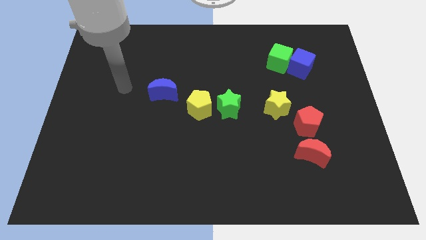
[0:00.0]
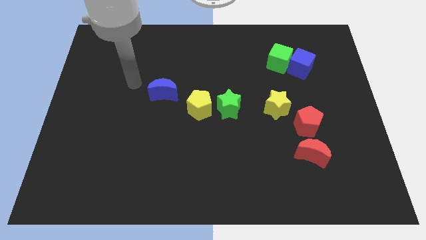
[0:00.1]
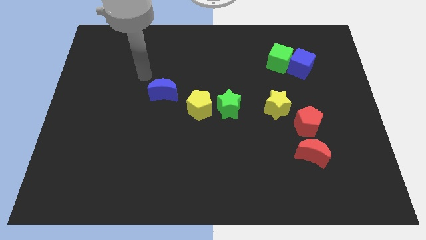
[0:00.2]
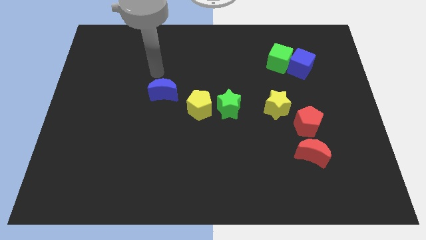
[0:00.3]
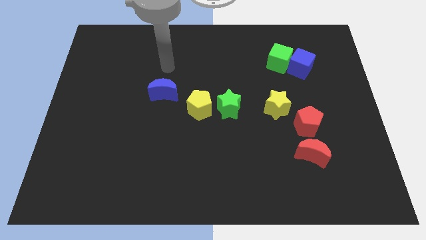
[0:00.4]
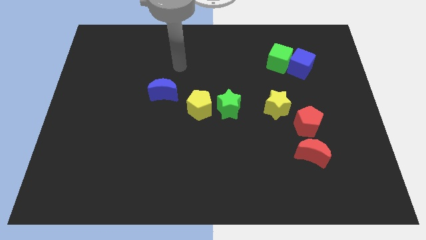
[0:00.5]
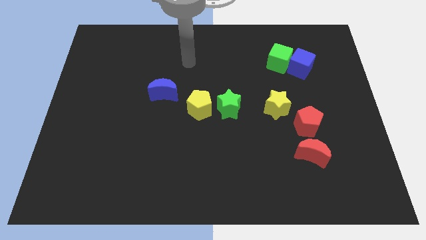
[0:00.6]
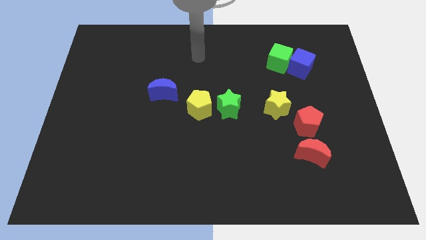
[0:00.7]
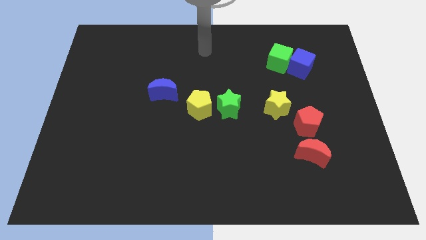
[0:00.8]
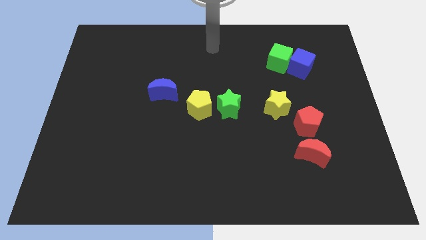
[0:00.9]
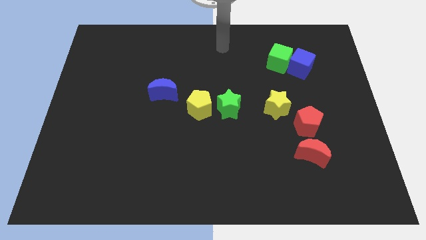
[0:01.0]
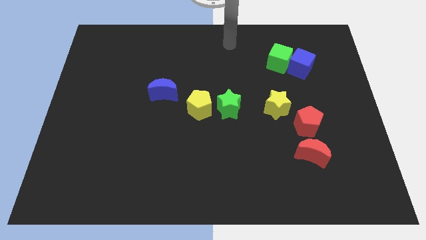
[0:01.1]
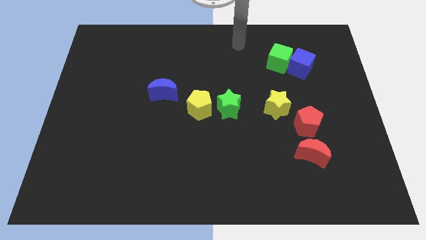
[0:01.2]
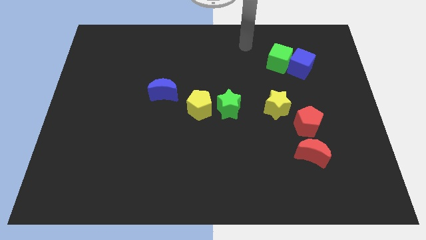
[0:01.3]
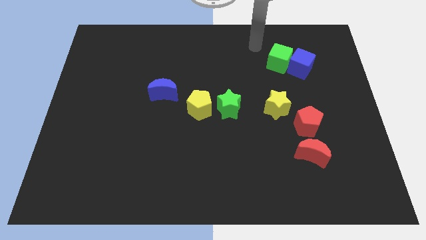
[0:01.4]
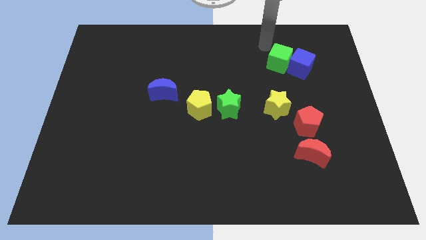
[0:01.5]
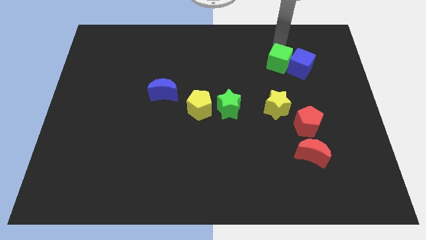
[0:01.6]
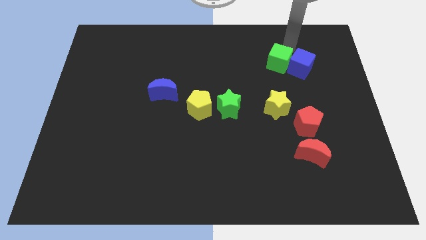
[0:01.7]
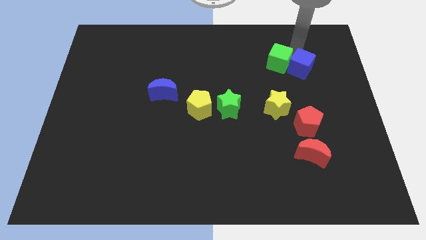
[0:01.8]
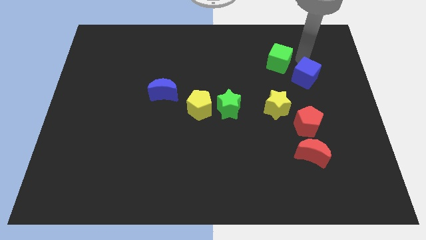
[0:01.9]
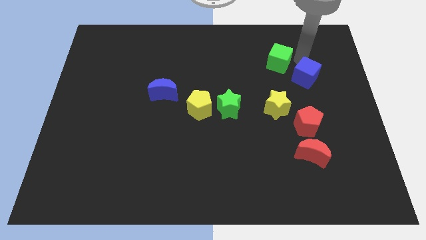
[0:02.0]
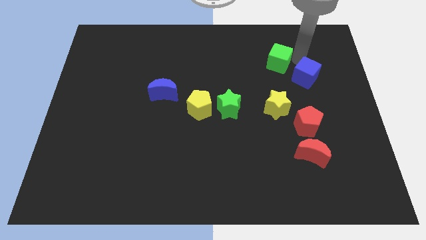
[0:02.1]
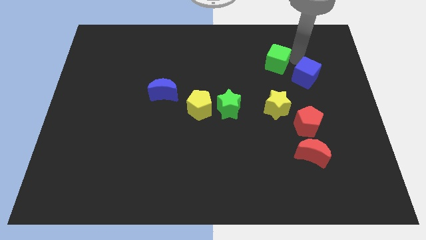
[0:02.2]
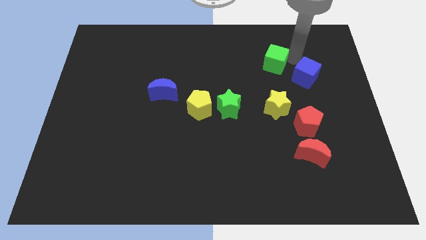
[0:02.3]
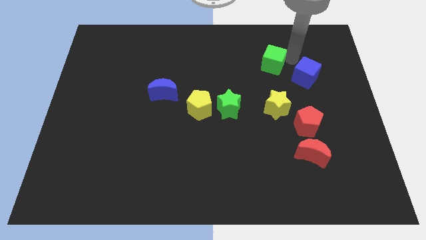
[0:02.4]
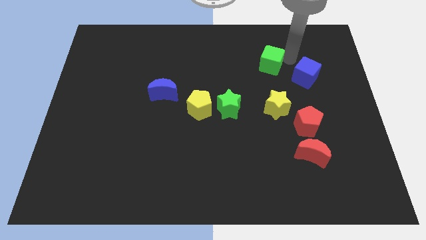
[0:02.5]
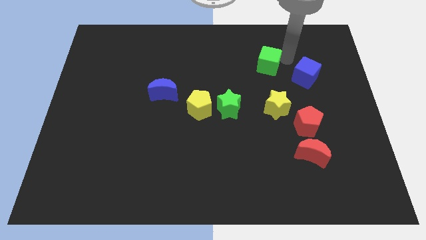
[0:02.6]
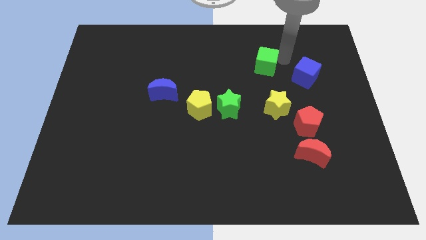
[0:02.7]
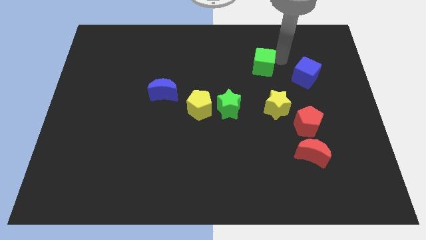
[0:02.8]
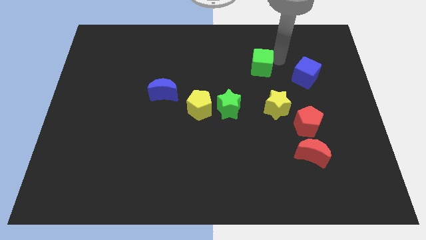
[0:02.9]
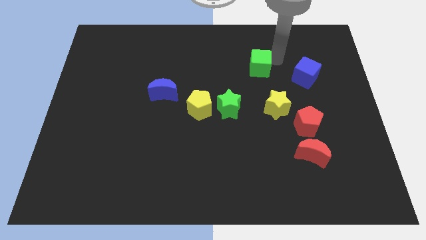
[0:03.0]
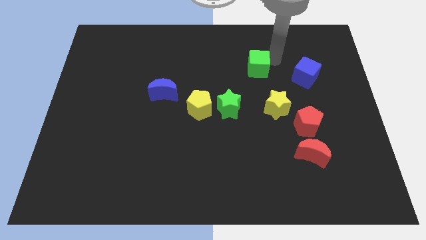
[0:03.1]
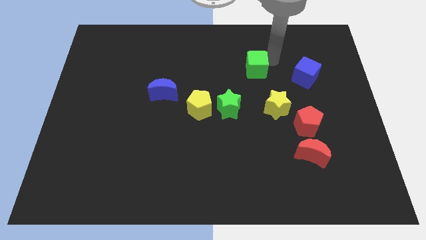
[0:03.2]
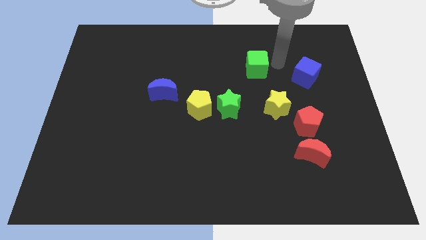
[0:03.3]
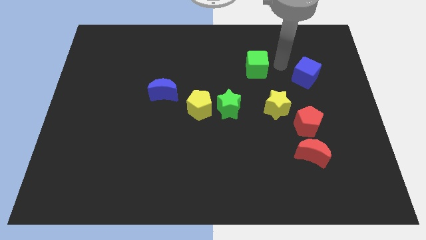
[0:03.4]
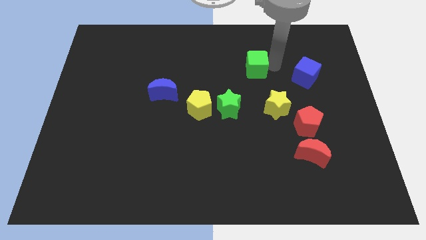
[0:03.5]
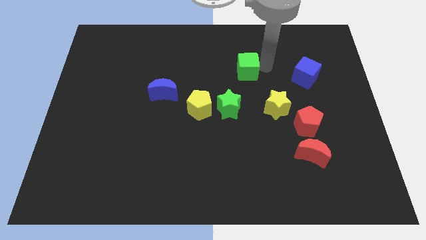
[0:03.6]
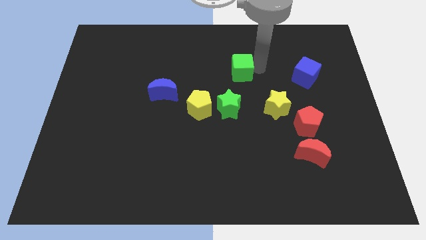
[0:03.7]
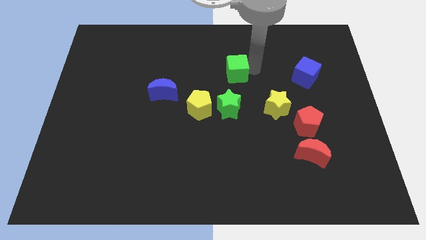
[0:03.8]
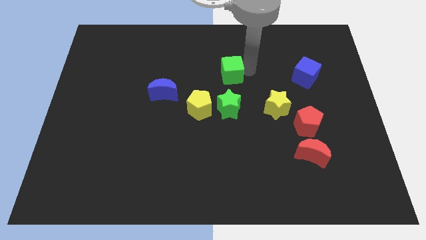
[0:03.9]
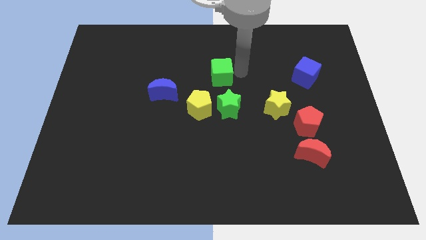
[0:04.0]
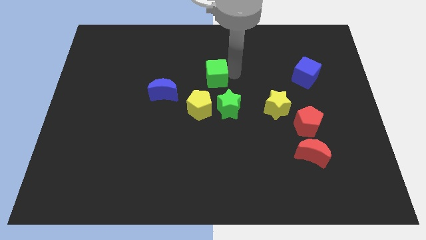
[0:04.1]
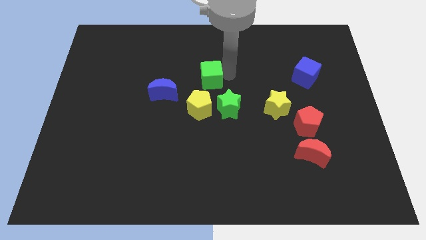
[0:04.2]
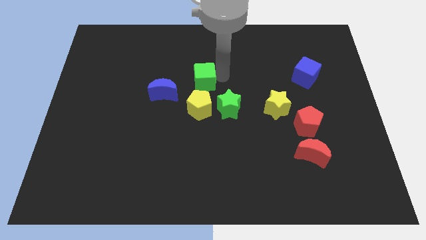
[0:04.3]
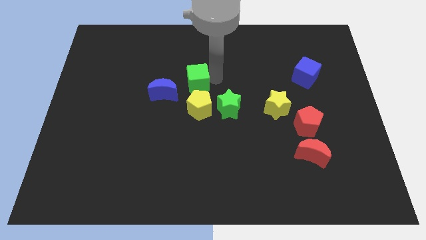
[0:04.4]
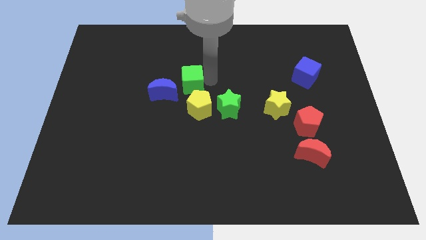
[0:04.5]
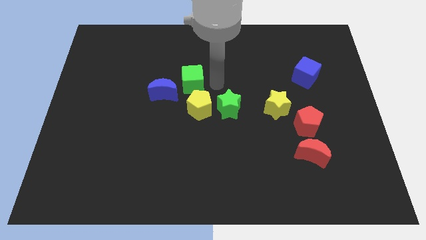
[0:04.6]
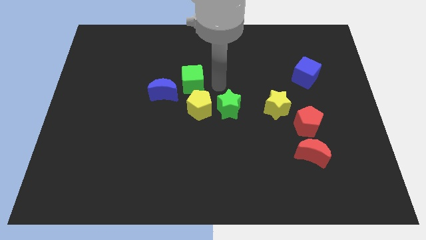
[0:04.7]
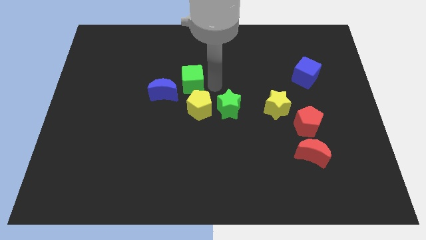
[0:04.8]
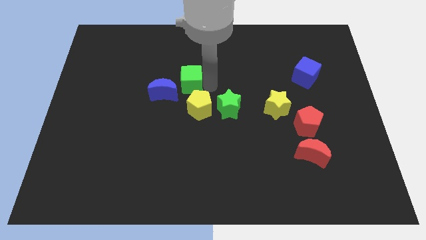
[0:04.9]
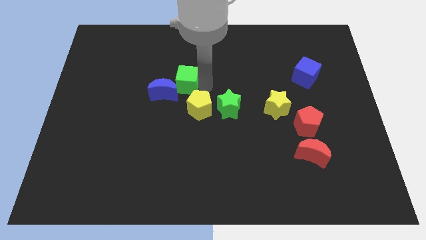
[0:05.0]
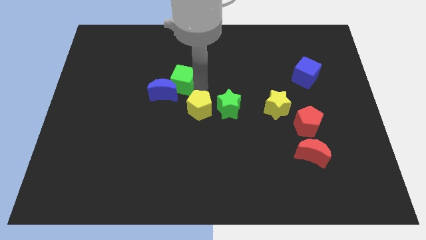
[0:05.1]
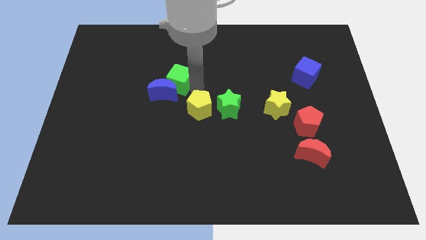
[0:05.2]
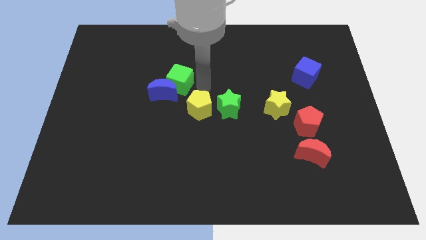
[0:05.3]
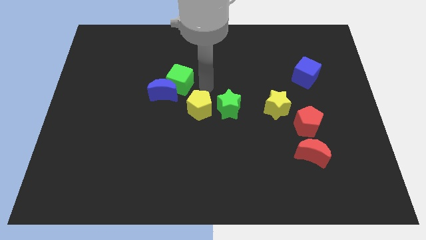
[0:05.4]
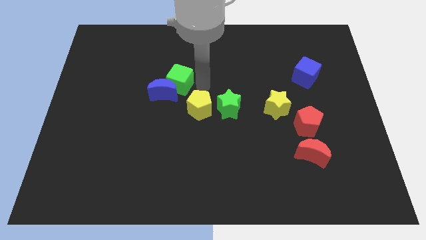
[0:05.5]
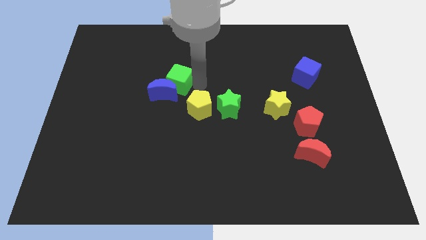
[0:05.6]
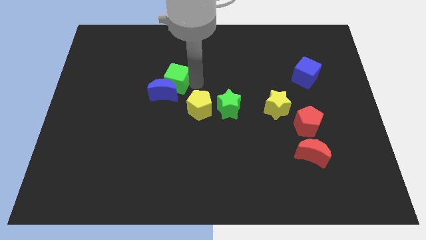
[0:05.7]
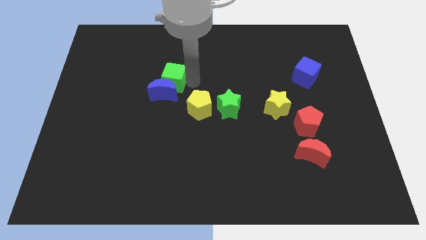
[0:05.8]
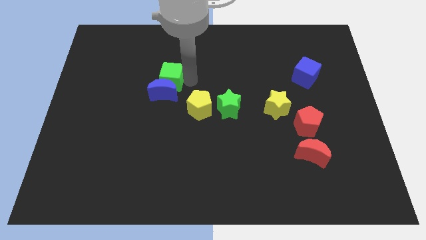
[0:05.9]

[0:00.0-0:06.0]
move the green cube to the top left side of the blue moon
